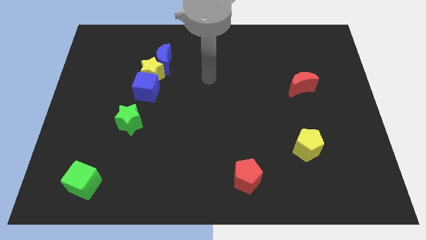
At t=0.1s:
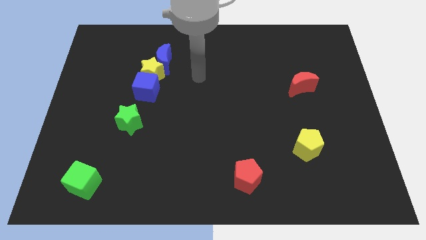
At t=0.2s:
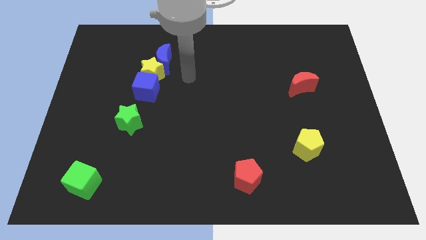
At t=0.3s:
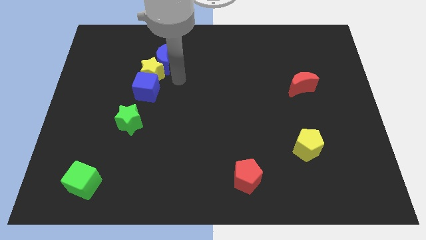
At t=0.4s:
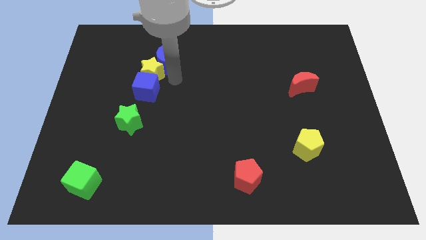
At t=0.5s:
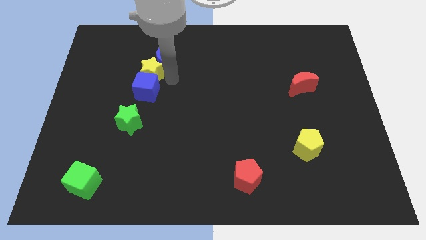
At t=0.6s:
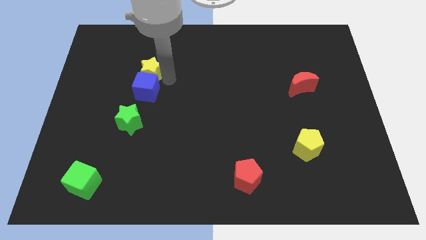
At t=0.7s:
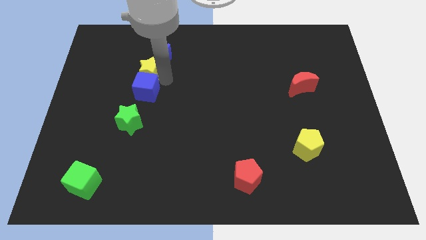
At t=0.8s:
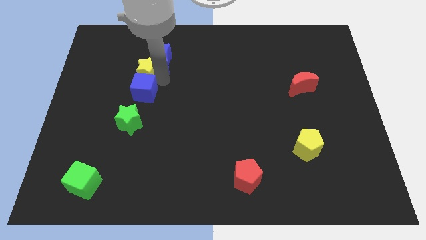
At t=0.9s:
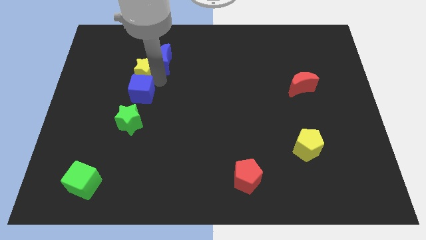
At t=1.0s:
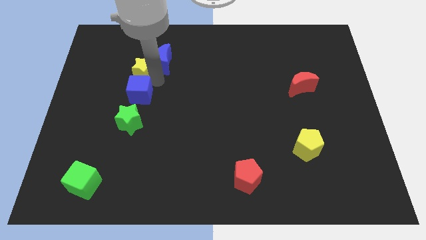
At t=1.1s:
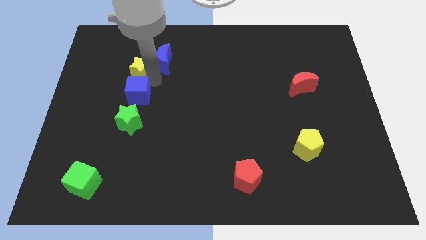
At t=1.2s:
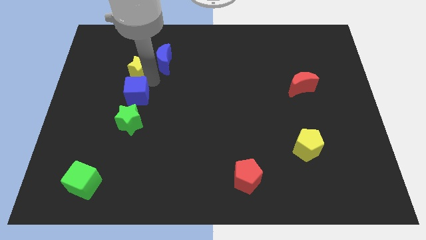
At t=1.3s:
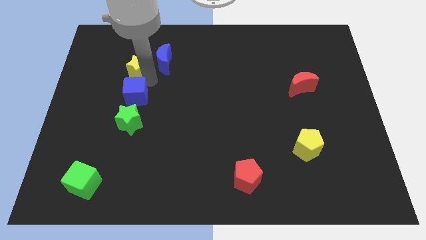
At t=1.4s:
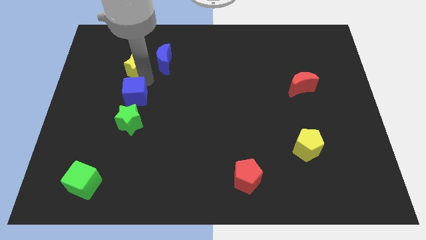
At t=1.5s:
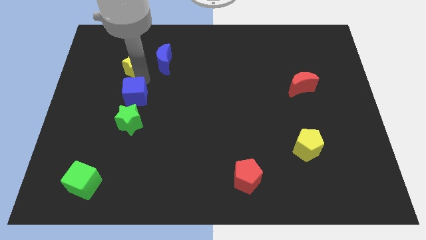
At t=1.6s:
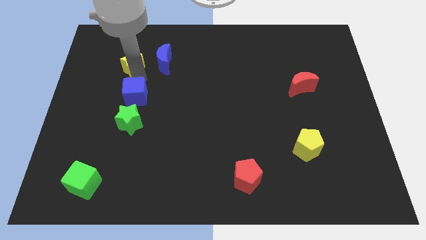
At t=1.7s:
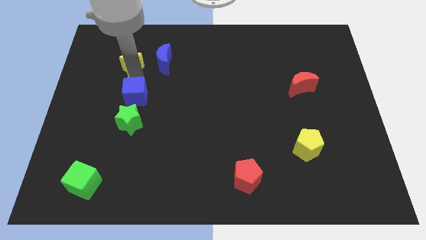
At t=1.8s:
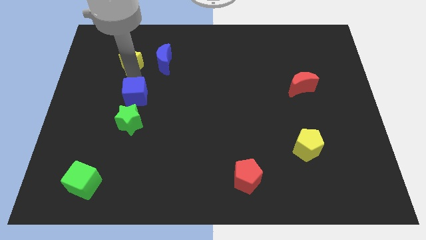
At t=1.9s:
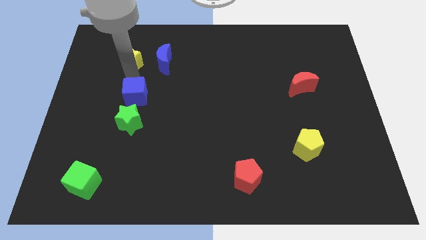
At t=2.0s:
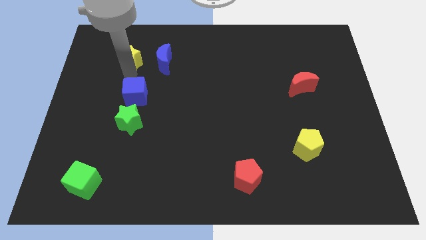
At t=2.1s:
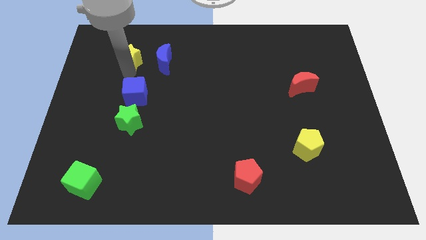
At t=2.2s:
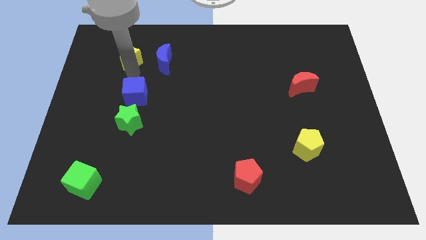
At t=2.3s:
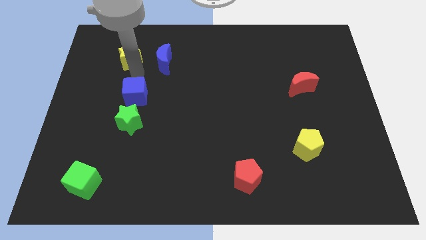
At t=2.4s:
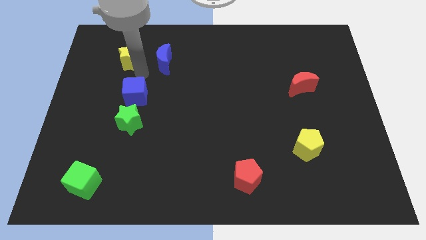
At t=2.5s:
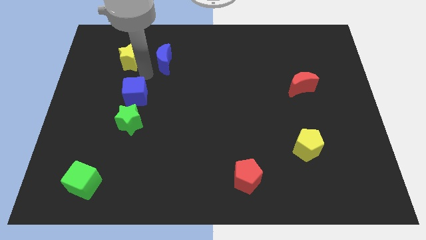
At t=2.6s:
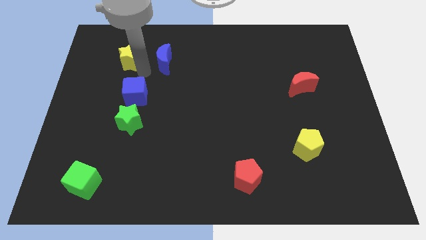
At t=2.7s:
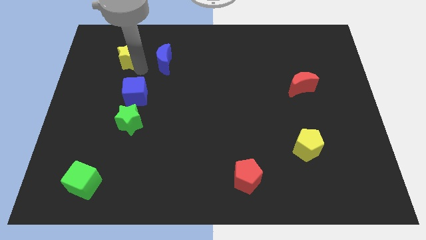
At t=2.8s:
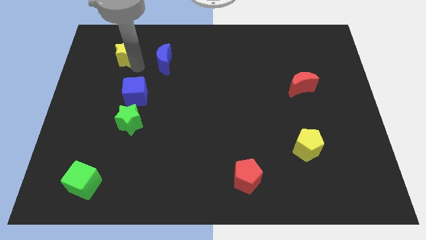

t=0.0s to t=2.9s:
pull the yellow star apart from the blue cube and blue moon

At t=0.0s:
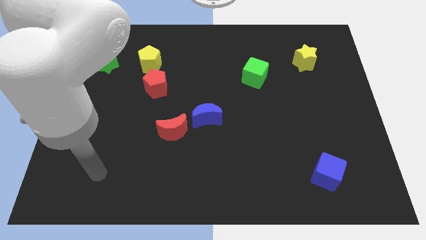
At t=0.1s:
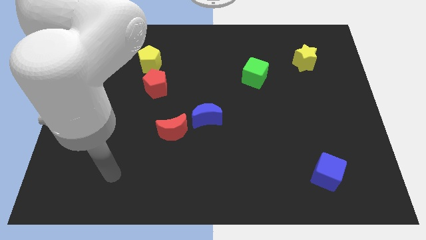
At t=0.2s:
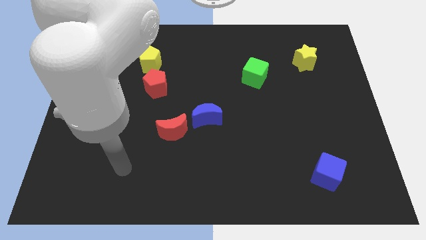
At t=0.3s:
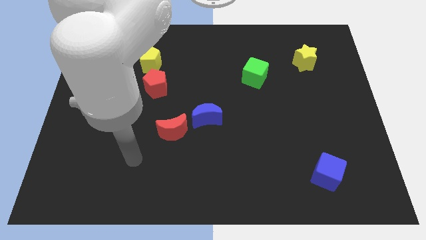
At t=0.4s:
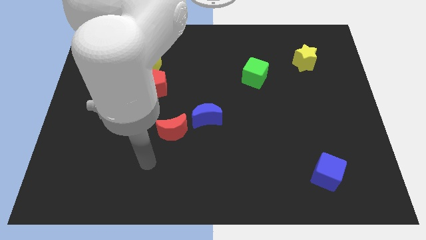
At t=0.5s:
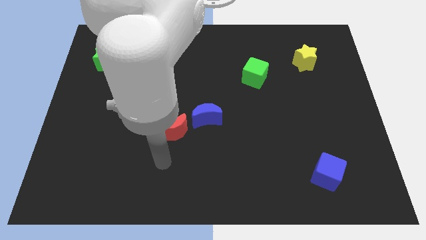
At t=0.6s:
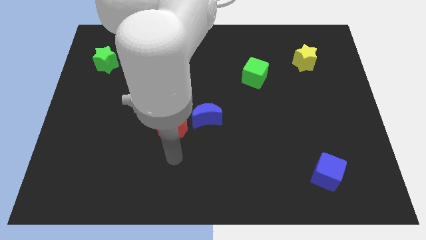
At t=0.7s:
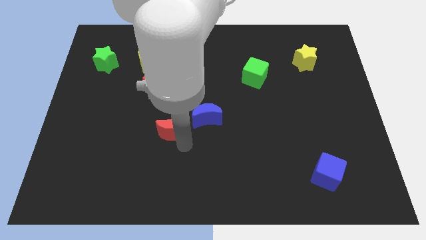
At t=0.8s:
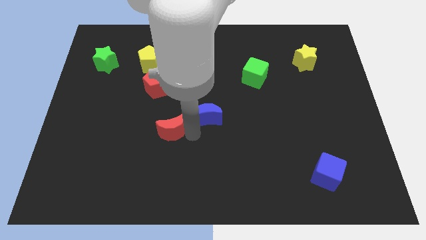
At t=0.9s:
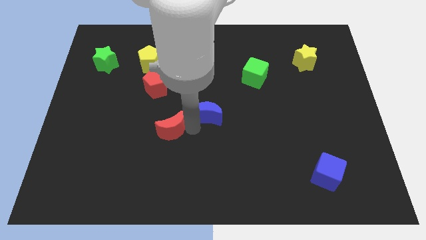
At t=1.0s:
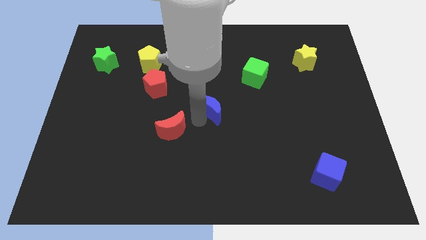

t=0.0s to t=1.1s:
move the red moon away from the blue moon

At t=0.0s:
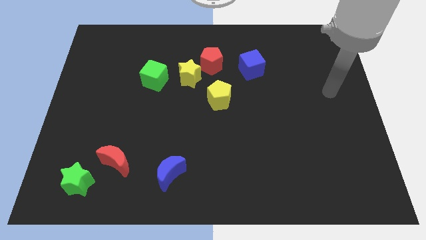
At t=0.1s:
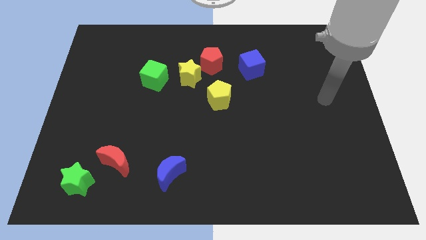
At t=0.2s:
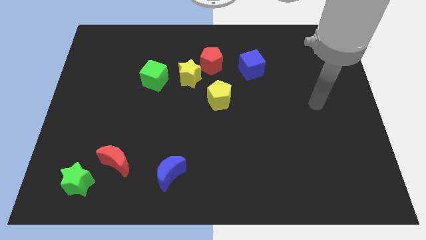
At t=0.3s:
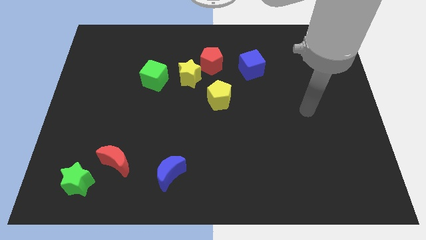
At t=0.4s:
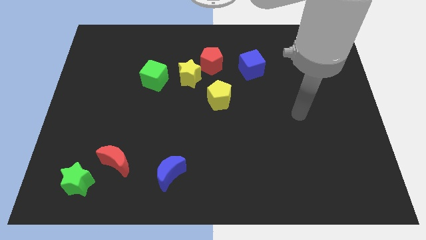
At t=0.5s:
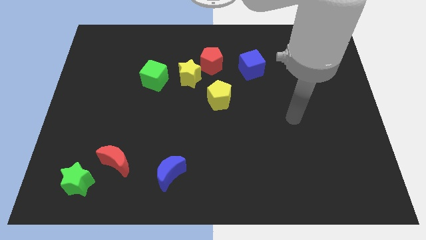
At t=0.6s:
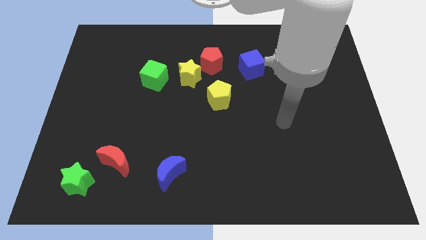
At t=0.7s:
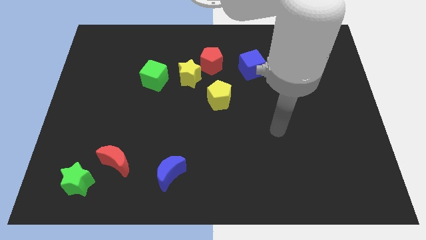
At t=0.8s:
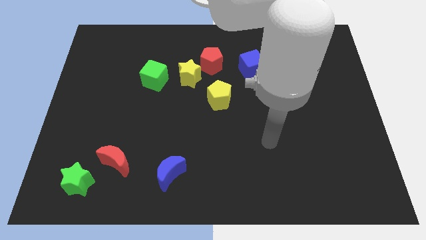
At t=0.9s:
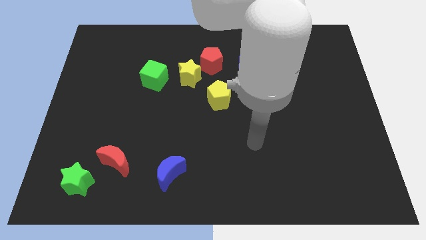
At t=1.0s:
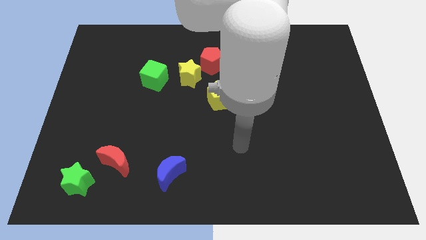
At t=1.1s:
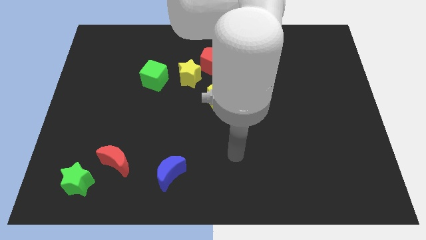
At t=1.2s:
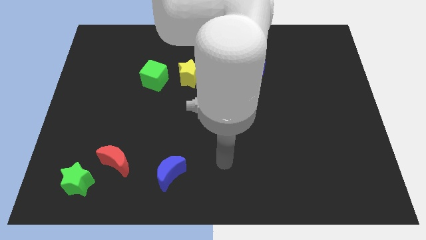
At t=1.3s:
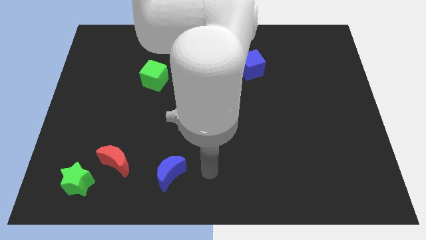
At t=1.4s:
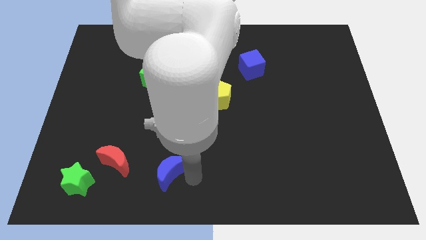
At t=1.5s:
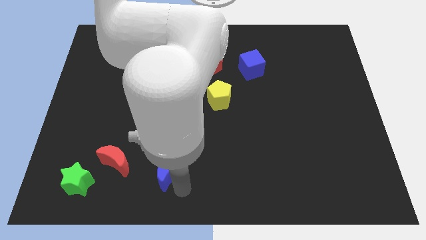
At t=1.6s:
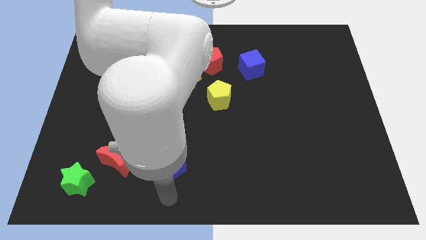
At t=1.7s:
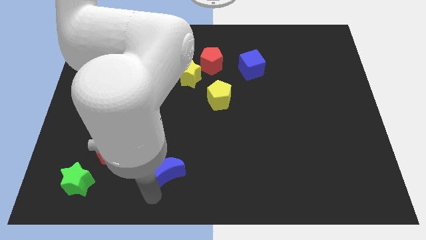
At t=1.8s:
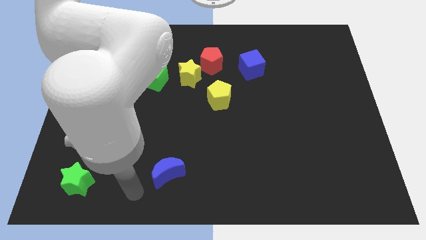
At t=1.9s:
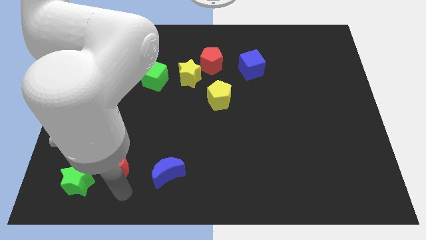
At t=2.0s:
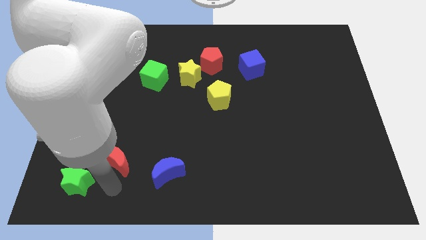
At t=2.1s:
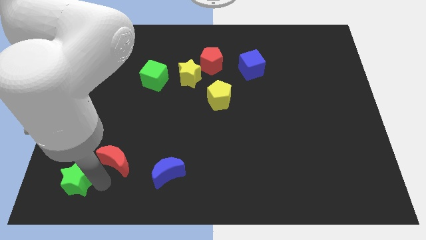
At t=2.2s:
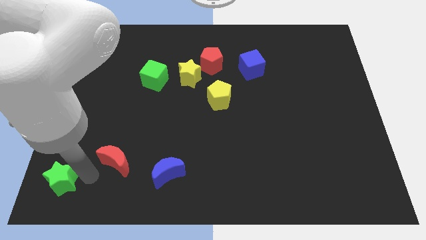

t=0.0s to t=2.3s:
move the red moon away from the green star

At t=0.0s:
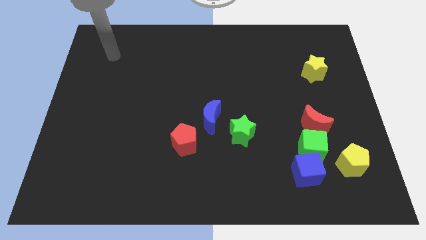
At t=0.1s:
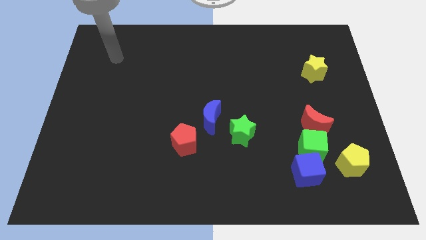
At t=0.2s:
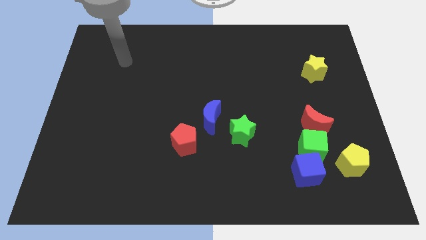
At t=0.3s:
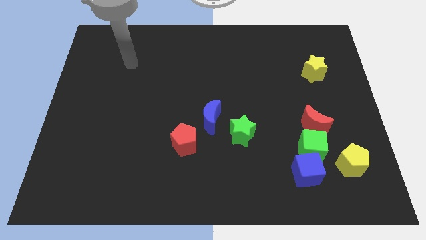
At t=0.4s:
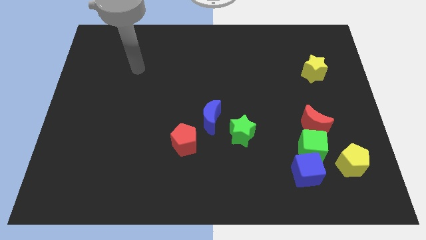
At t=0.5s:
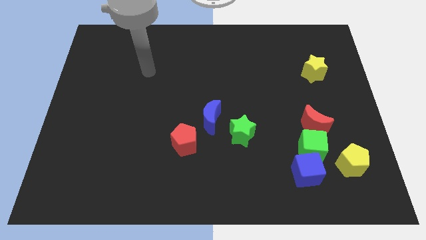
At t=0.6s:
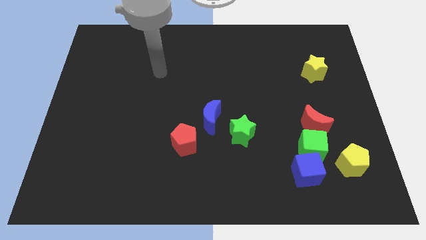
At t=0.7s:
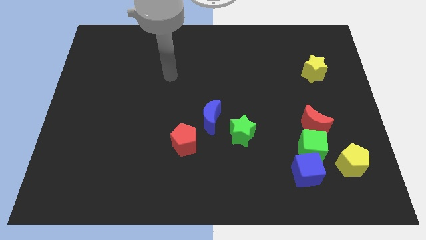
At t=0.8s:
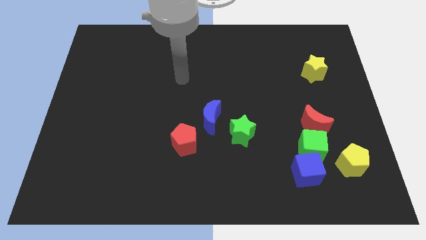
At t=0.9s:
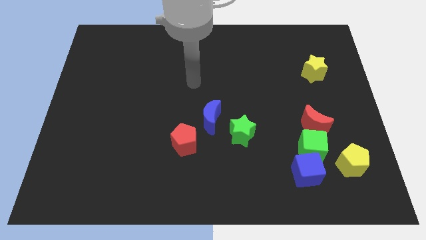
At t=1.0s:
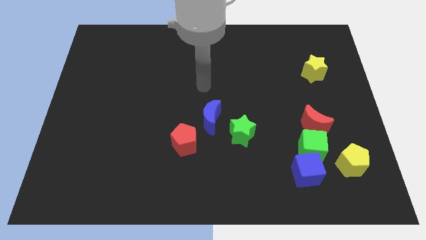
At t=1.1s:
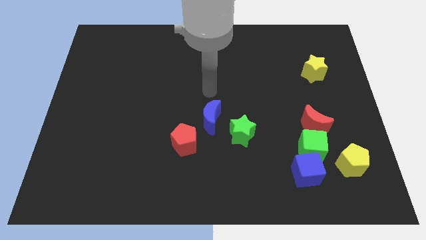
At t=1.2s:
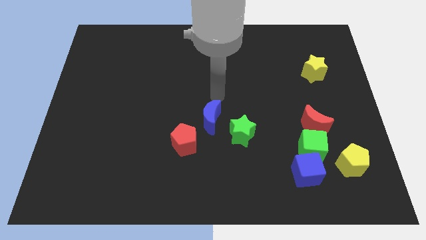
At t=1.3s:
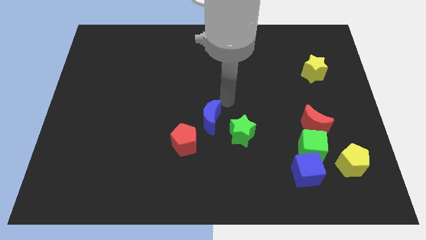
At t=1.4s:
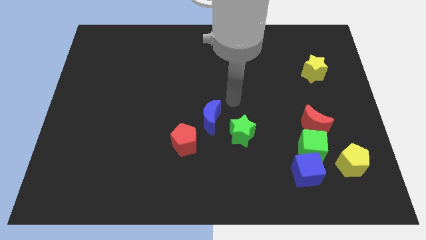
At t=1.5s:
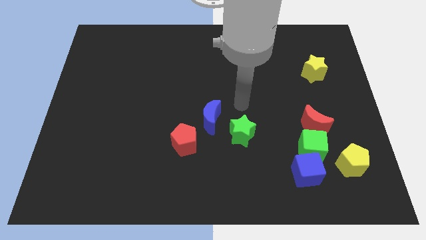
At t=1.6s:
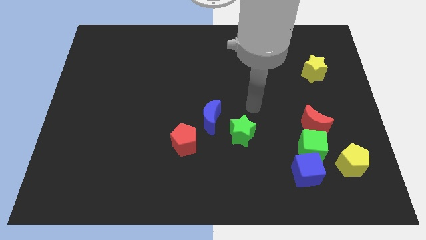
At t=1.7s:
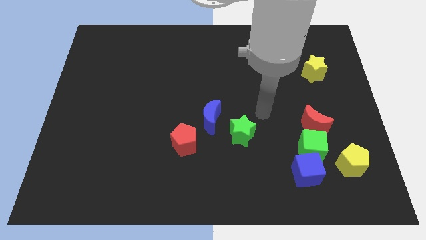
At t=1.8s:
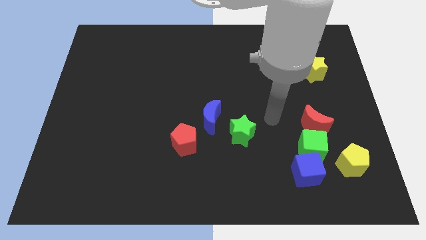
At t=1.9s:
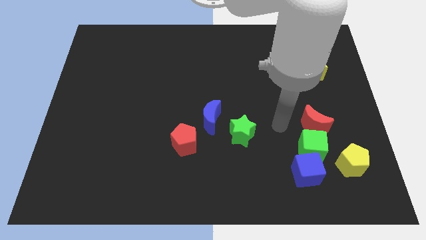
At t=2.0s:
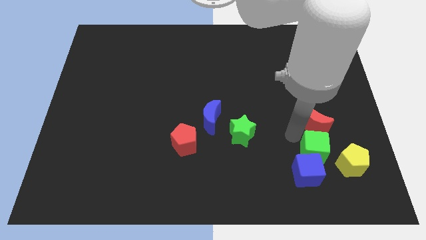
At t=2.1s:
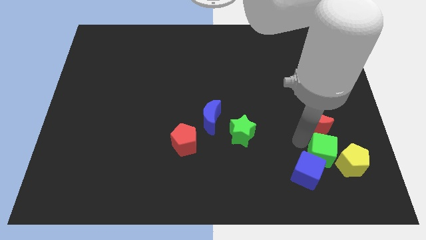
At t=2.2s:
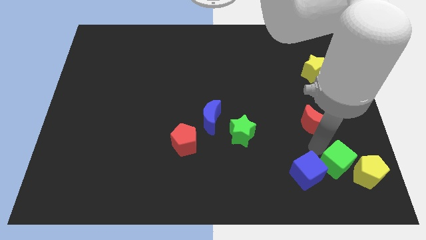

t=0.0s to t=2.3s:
separate the red moon from the green cube

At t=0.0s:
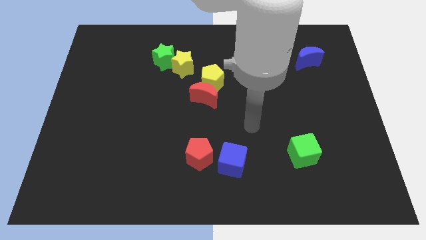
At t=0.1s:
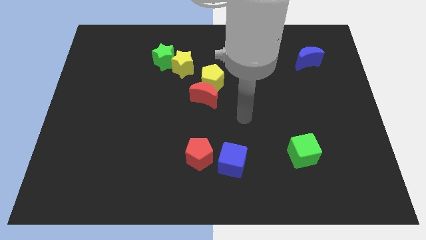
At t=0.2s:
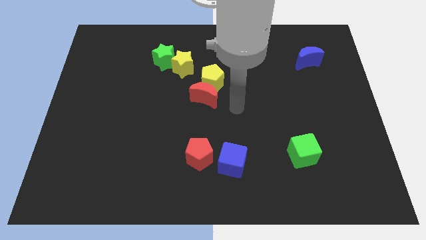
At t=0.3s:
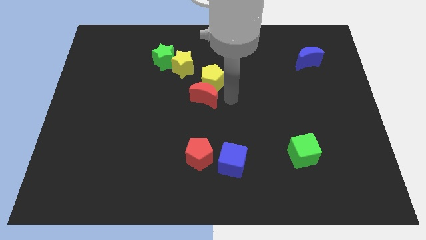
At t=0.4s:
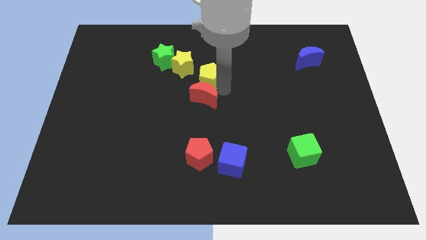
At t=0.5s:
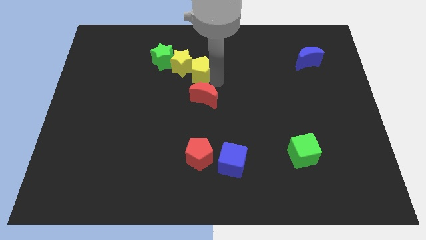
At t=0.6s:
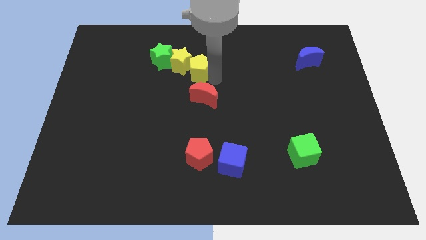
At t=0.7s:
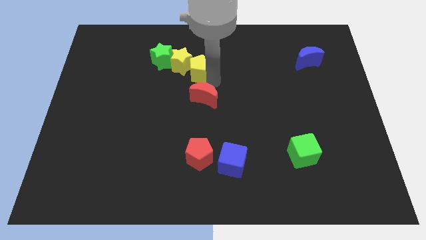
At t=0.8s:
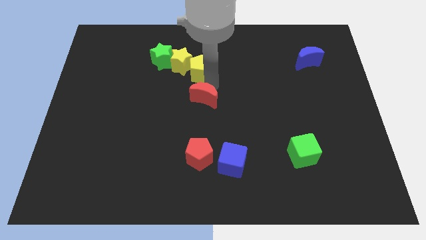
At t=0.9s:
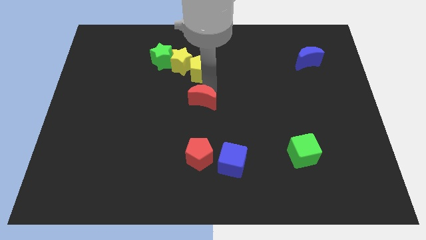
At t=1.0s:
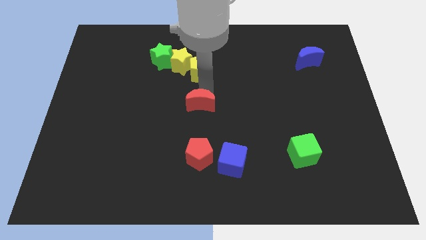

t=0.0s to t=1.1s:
move the red moon away from the yellow pentagon
